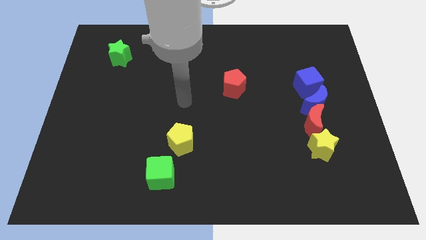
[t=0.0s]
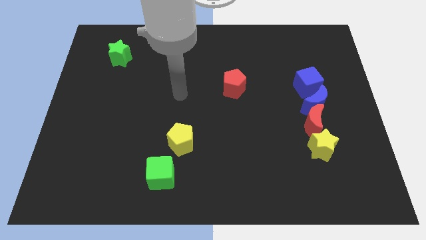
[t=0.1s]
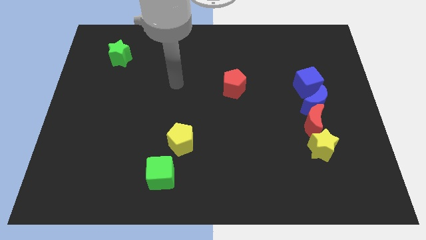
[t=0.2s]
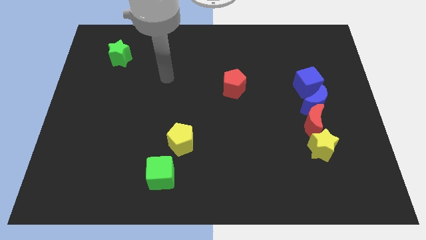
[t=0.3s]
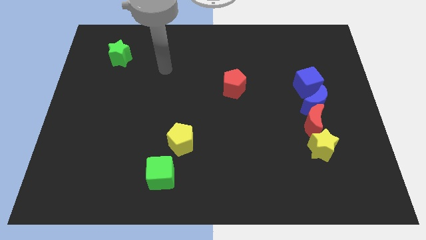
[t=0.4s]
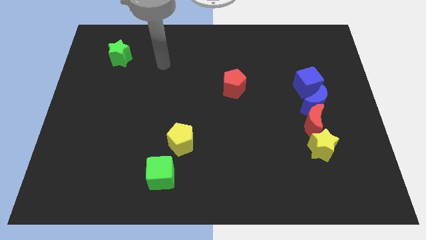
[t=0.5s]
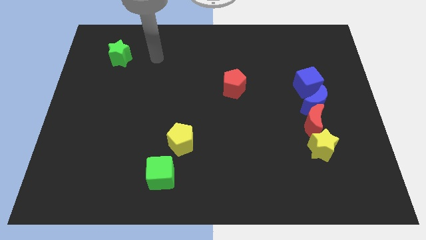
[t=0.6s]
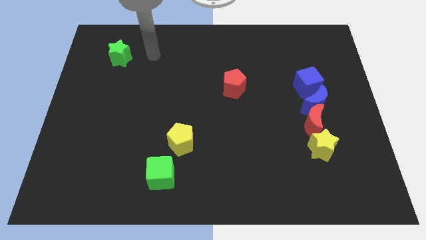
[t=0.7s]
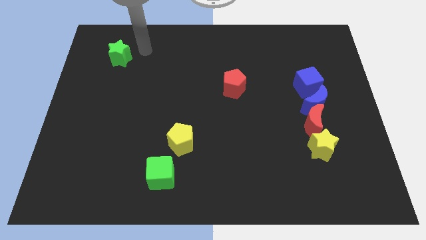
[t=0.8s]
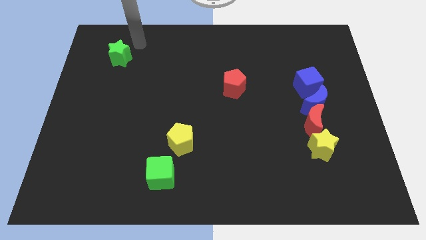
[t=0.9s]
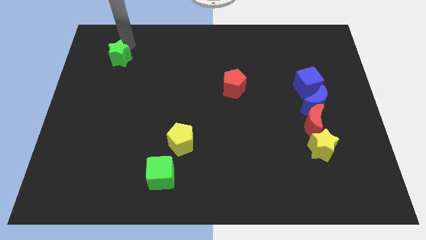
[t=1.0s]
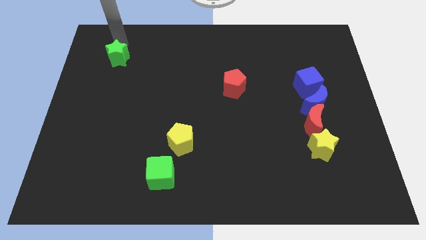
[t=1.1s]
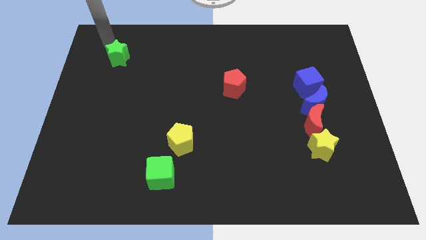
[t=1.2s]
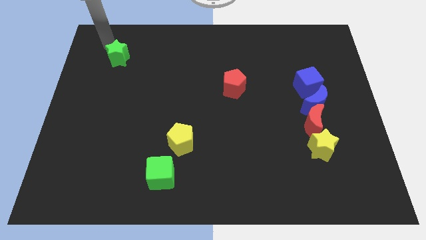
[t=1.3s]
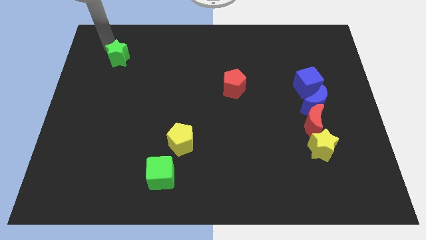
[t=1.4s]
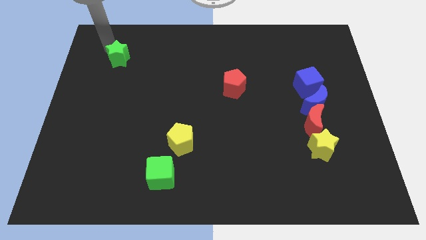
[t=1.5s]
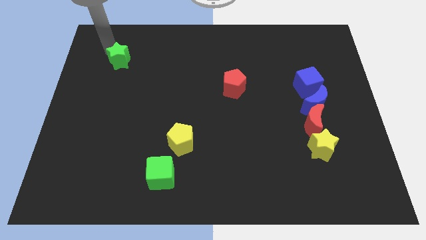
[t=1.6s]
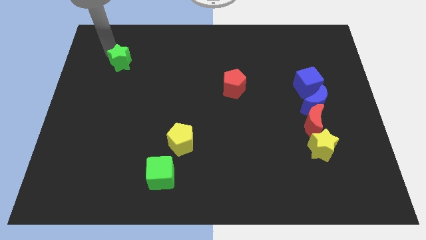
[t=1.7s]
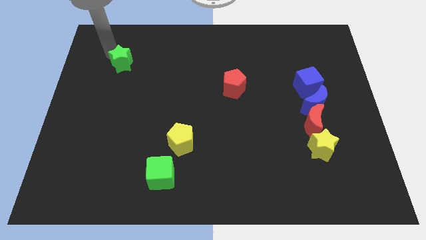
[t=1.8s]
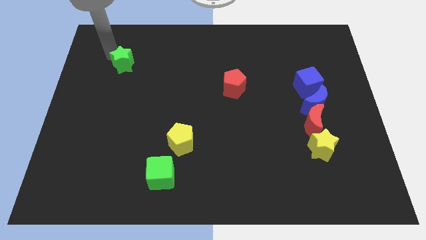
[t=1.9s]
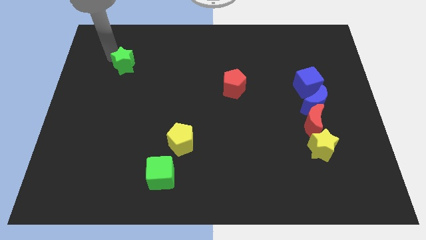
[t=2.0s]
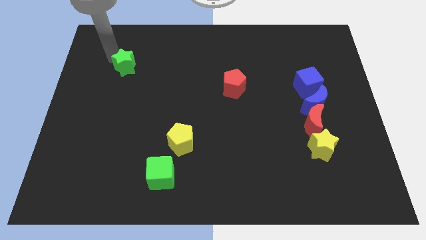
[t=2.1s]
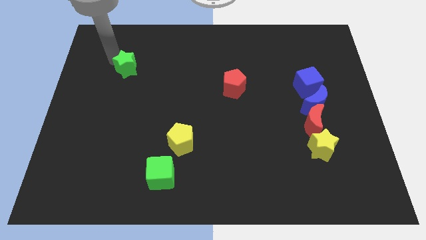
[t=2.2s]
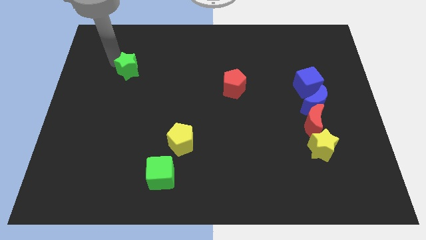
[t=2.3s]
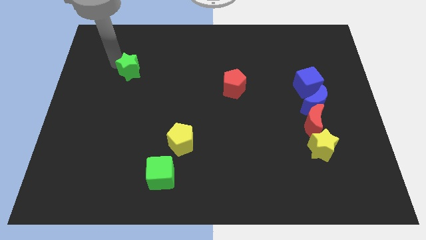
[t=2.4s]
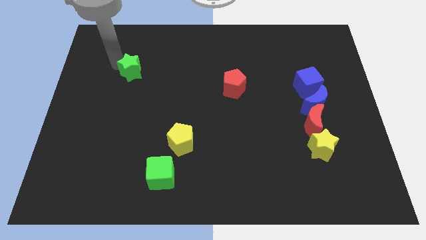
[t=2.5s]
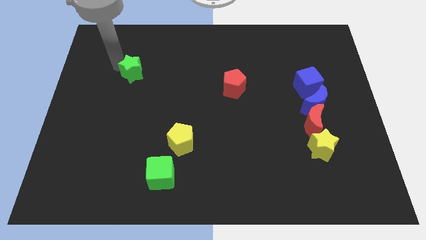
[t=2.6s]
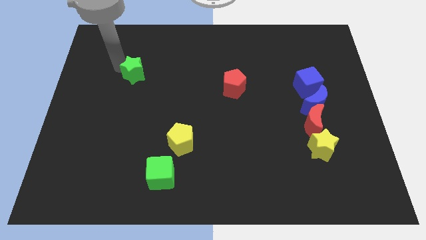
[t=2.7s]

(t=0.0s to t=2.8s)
push the green star downwards and then to the right a bit

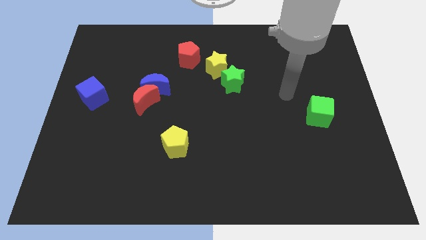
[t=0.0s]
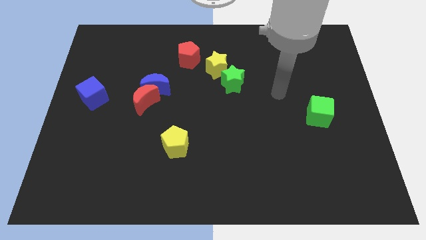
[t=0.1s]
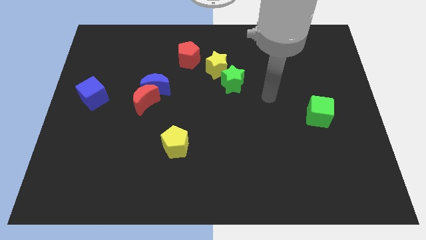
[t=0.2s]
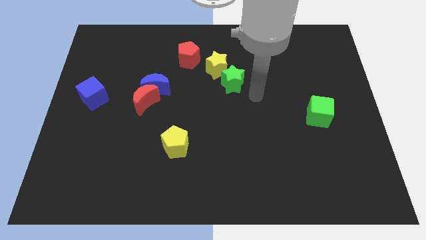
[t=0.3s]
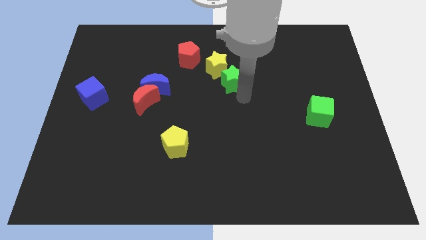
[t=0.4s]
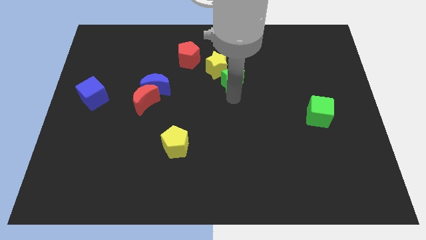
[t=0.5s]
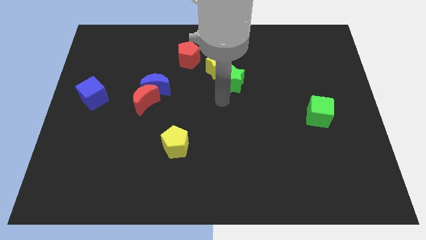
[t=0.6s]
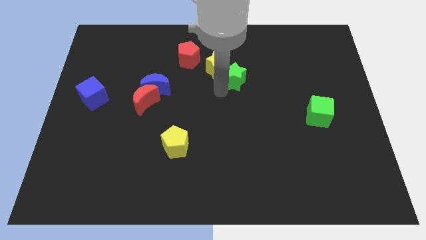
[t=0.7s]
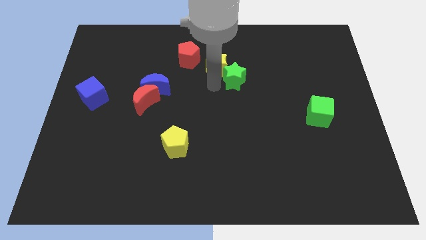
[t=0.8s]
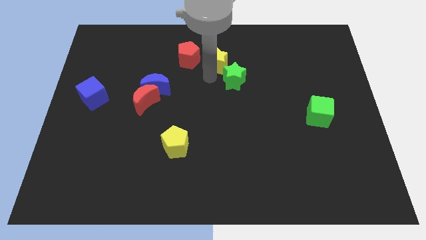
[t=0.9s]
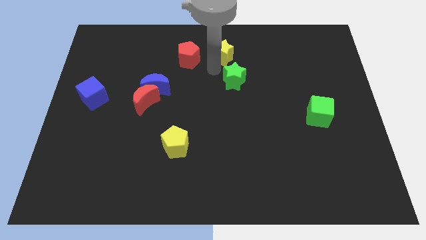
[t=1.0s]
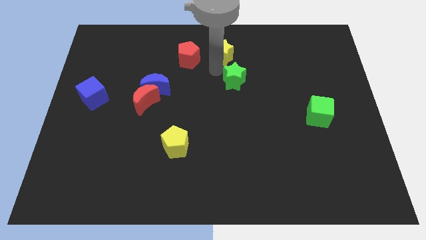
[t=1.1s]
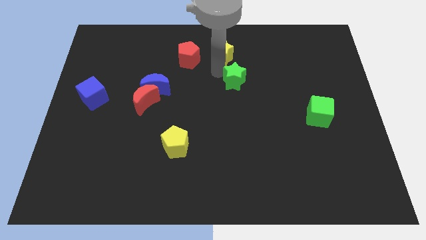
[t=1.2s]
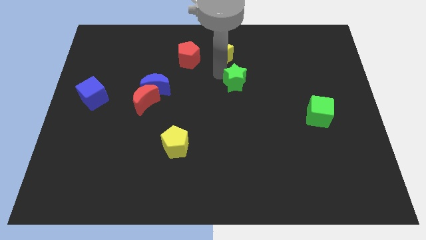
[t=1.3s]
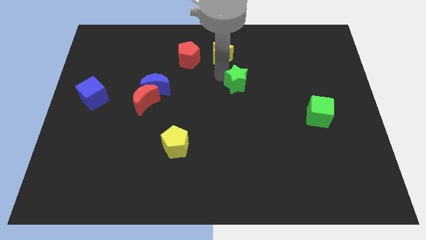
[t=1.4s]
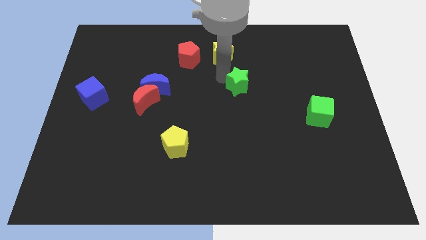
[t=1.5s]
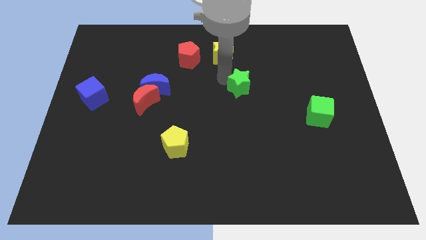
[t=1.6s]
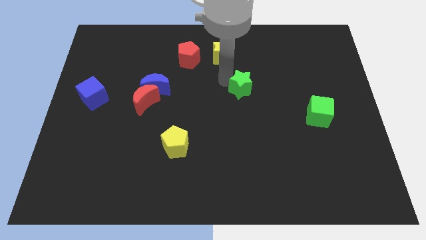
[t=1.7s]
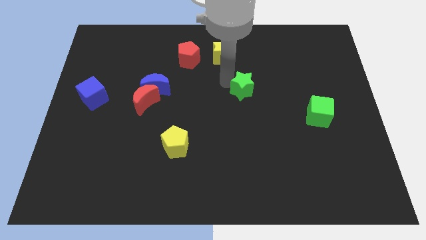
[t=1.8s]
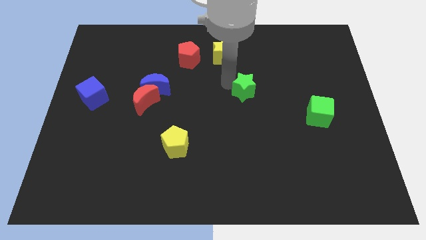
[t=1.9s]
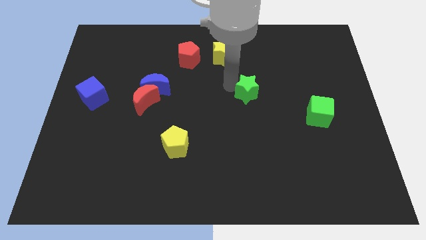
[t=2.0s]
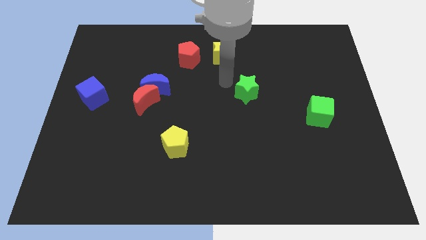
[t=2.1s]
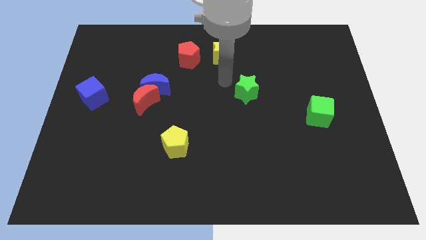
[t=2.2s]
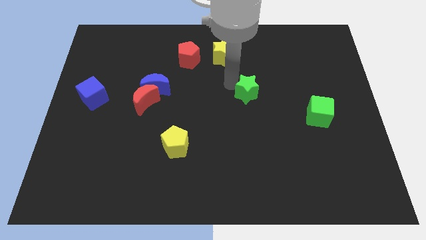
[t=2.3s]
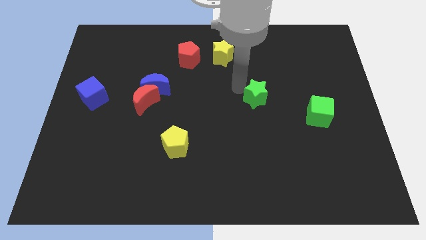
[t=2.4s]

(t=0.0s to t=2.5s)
slide the green star down and right a bit

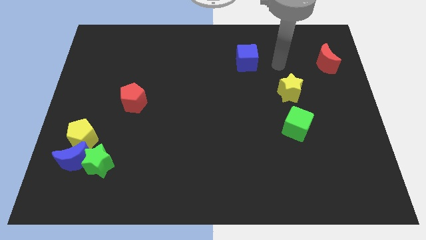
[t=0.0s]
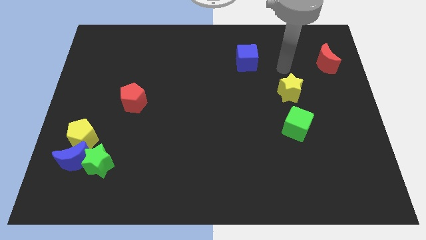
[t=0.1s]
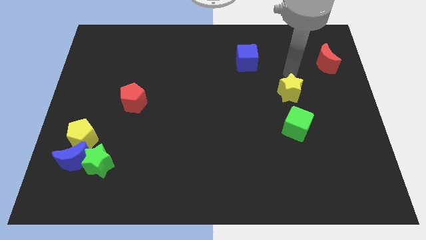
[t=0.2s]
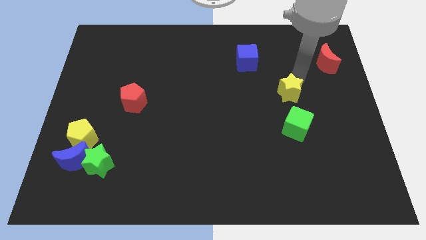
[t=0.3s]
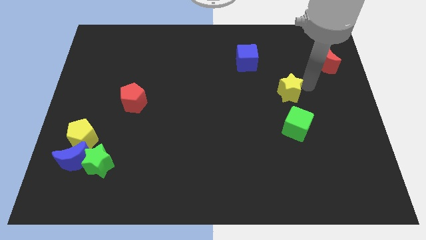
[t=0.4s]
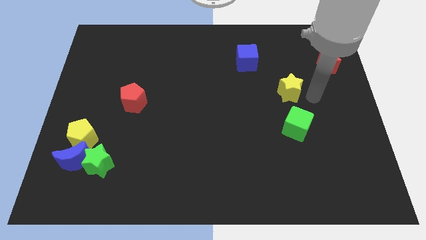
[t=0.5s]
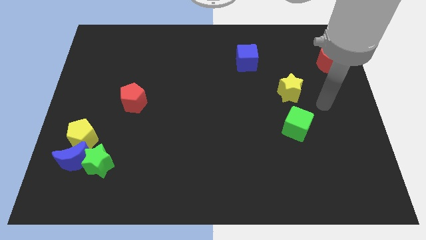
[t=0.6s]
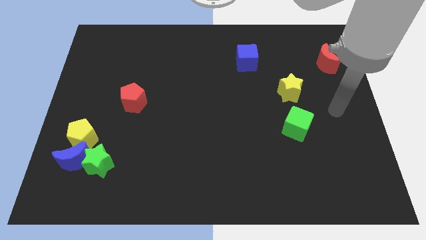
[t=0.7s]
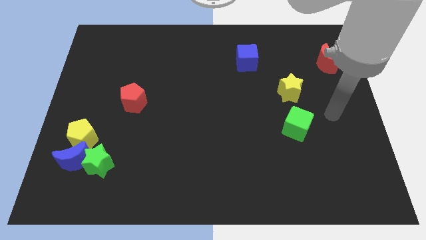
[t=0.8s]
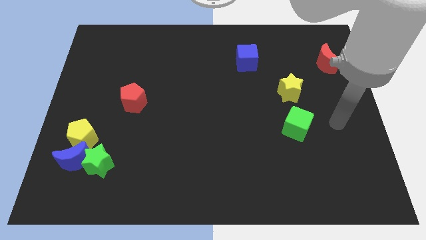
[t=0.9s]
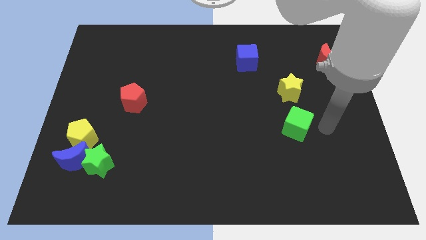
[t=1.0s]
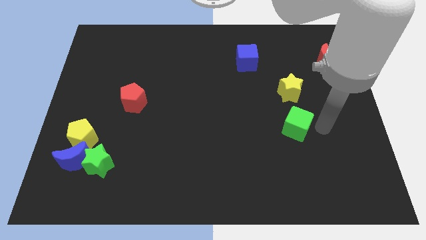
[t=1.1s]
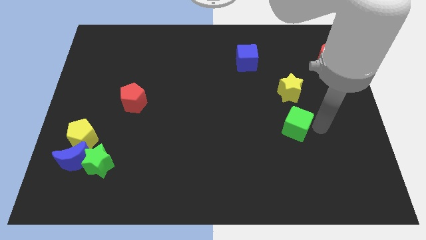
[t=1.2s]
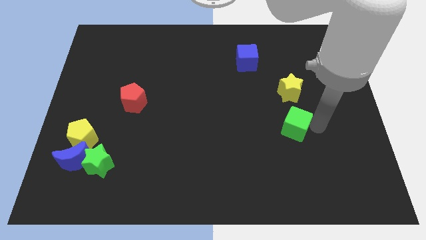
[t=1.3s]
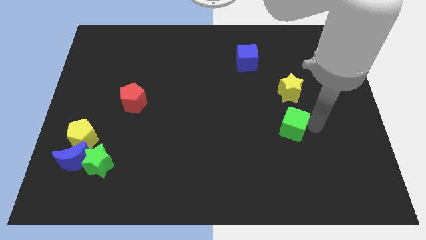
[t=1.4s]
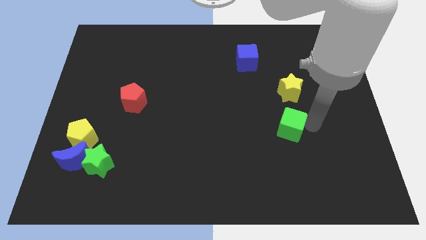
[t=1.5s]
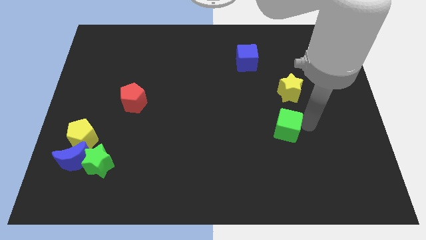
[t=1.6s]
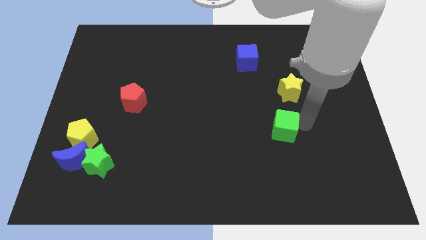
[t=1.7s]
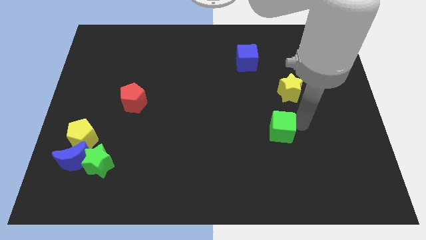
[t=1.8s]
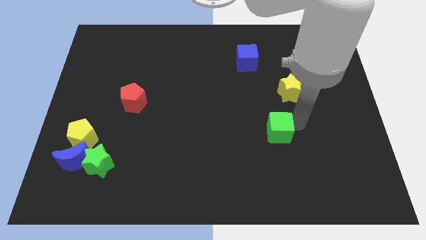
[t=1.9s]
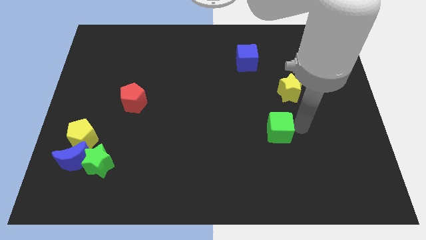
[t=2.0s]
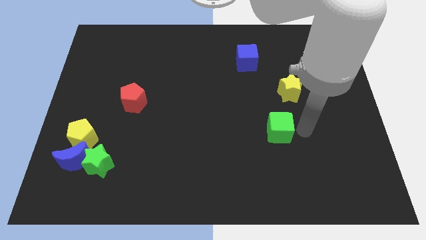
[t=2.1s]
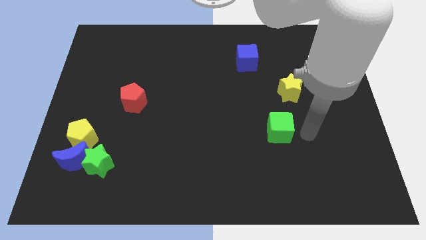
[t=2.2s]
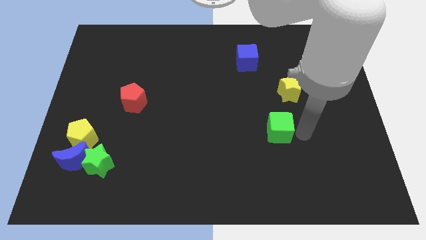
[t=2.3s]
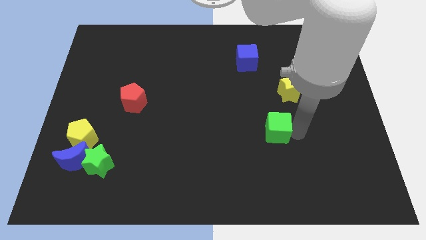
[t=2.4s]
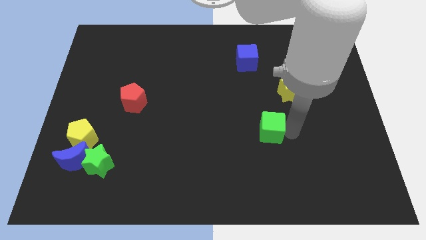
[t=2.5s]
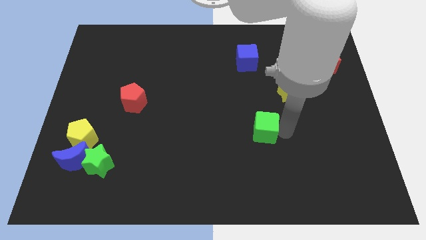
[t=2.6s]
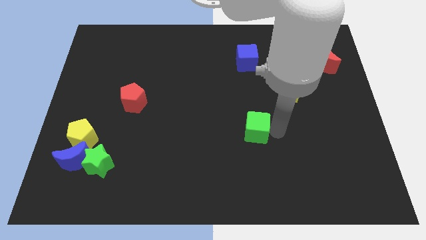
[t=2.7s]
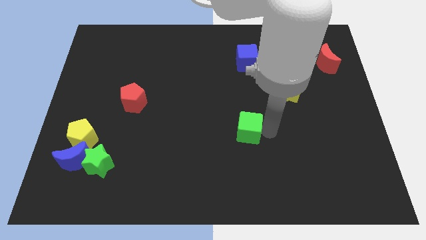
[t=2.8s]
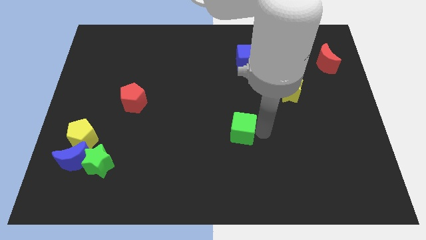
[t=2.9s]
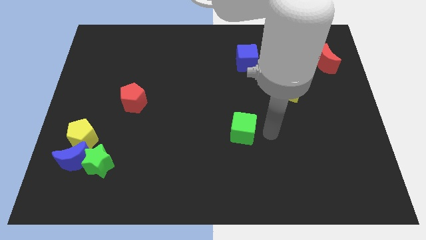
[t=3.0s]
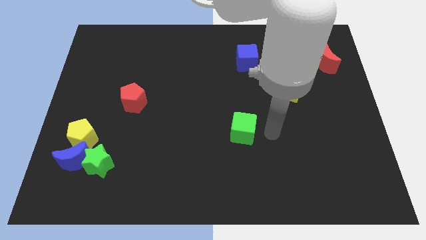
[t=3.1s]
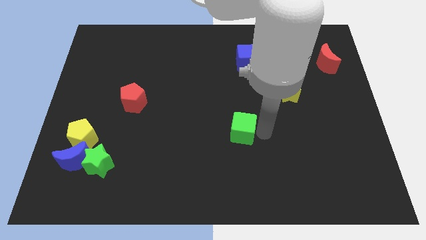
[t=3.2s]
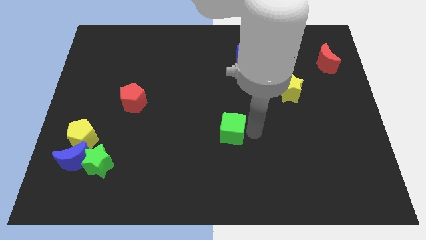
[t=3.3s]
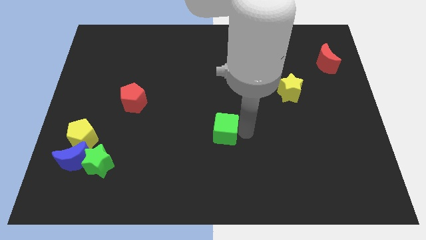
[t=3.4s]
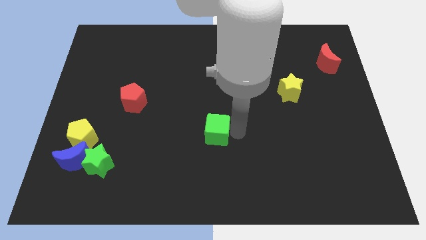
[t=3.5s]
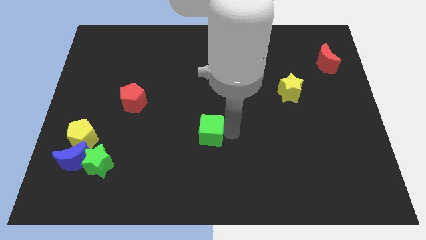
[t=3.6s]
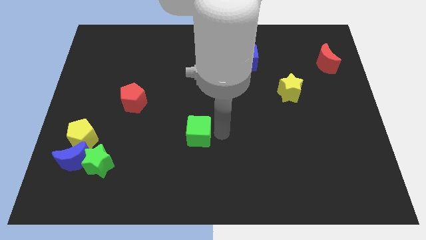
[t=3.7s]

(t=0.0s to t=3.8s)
slide the green cube left
